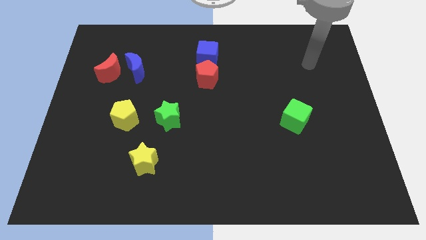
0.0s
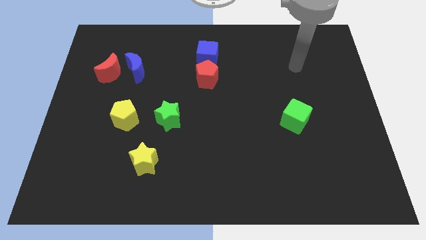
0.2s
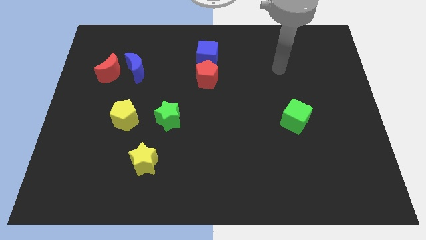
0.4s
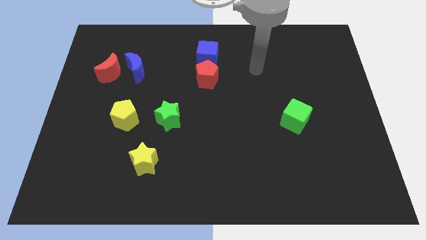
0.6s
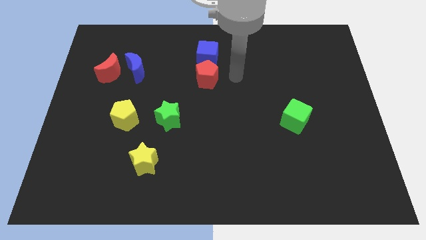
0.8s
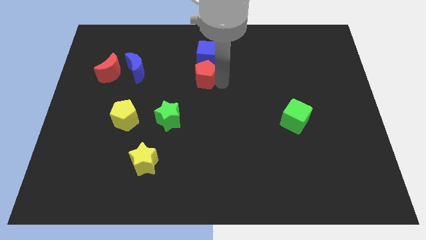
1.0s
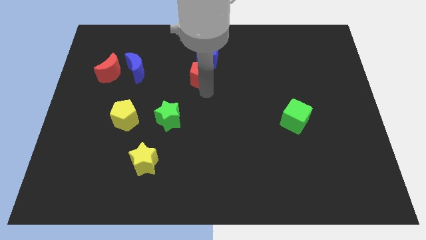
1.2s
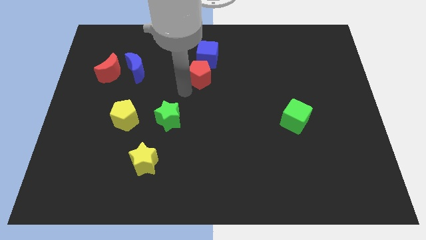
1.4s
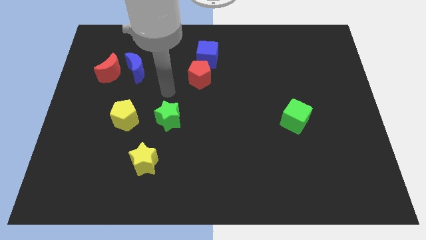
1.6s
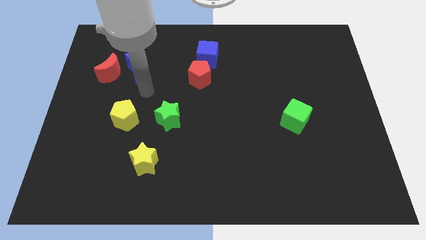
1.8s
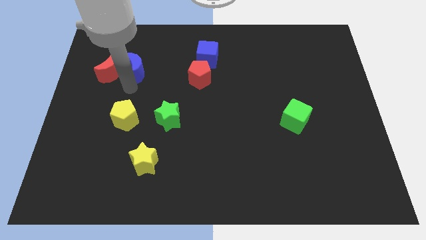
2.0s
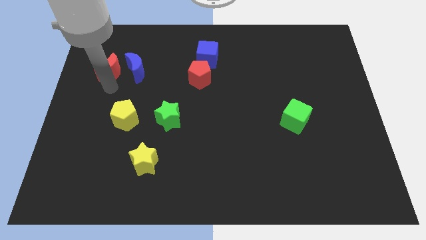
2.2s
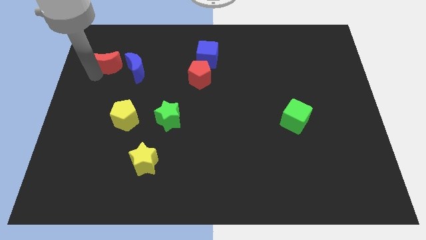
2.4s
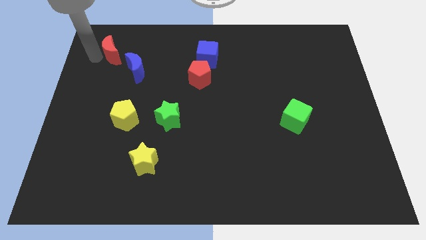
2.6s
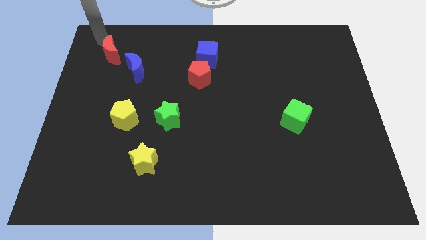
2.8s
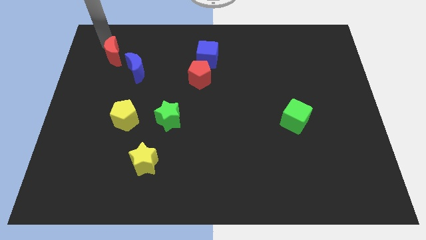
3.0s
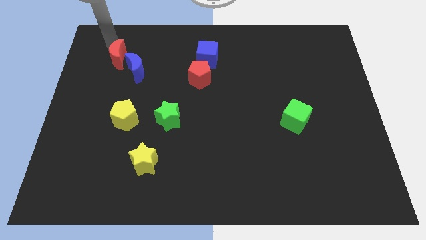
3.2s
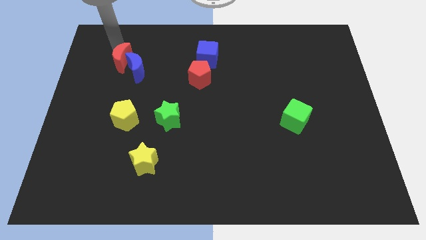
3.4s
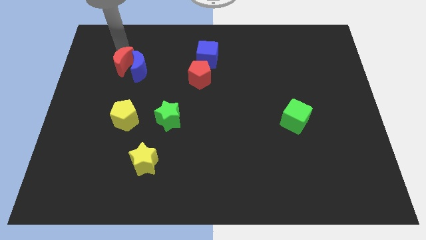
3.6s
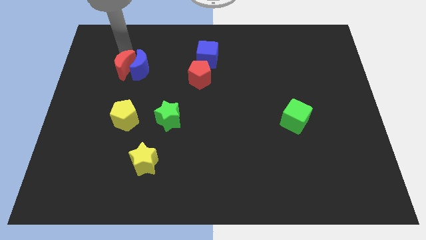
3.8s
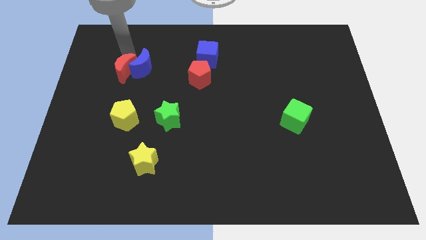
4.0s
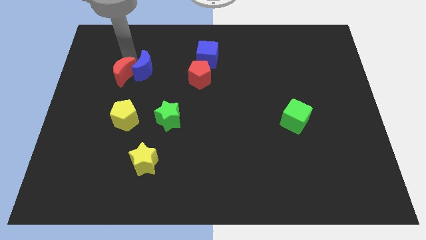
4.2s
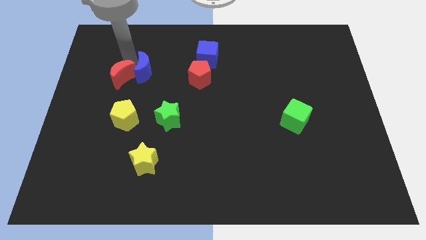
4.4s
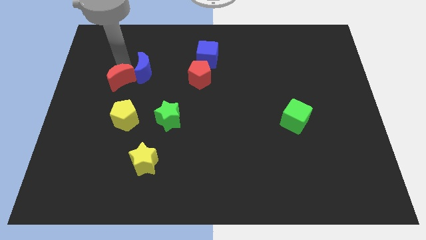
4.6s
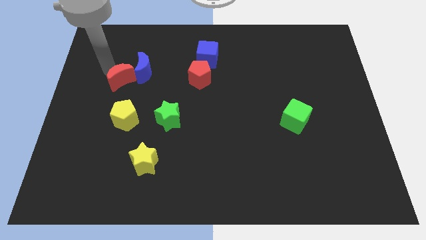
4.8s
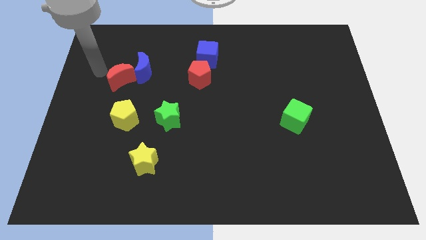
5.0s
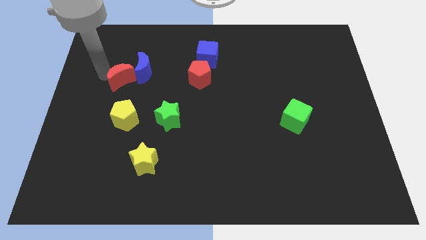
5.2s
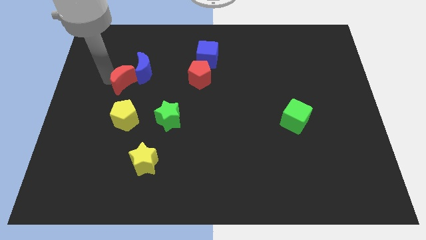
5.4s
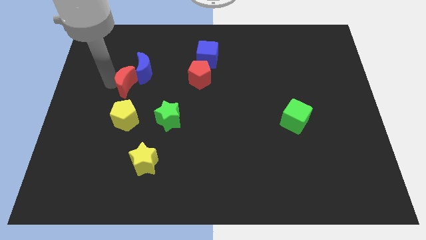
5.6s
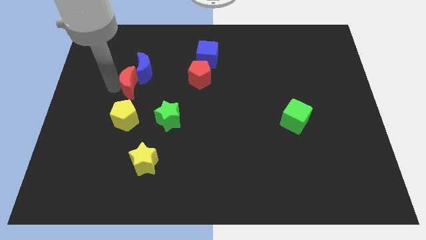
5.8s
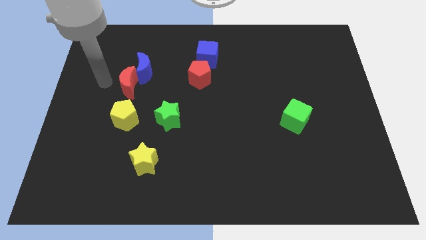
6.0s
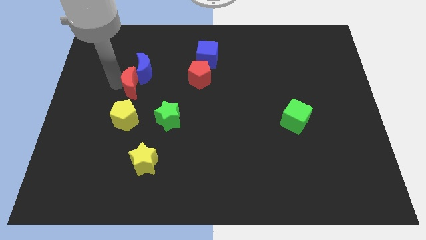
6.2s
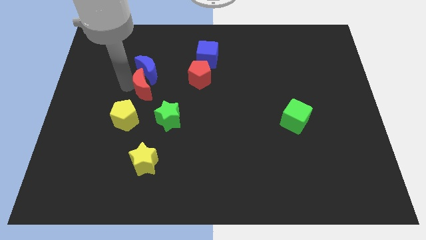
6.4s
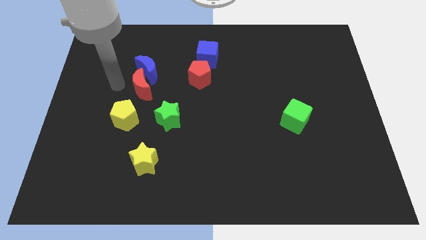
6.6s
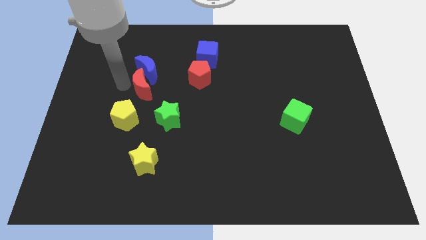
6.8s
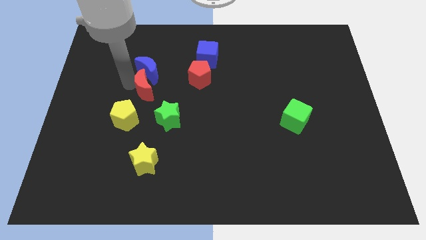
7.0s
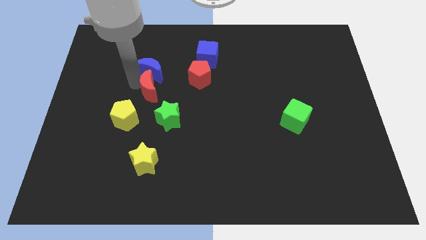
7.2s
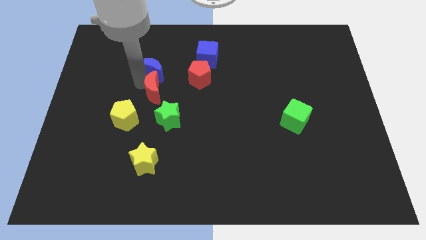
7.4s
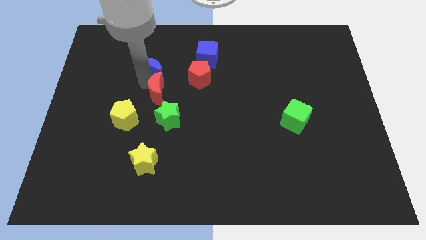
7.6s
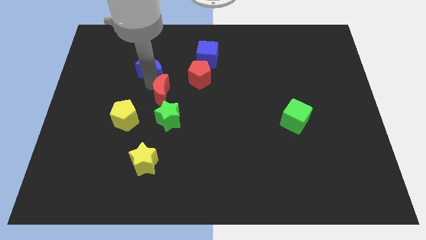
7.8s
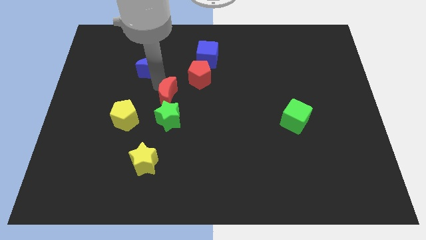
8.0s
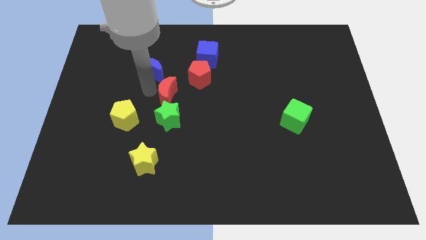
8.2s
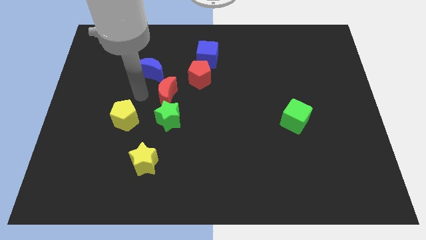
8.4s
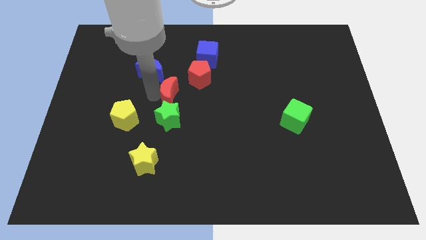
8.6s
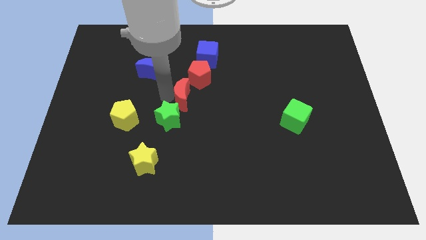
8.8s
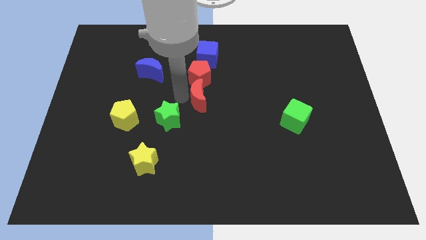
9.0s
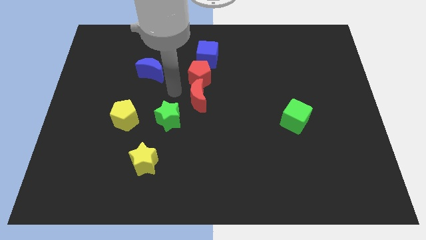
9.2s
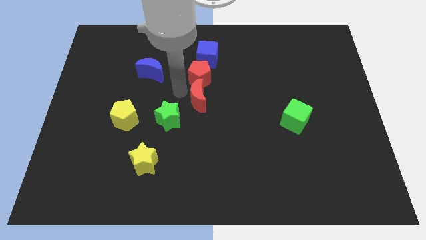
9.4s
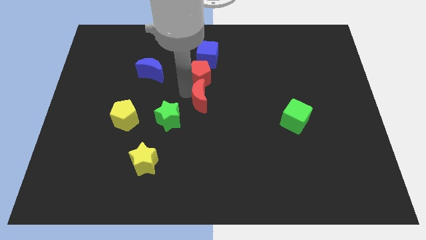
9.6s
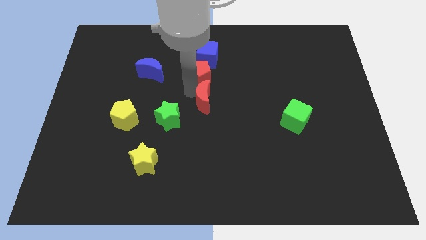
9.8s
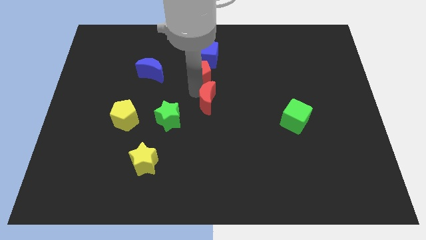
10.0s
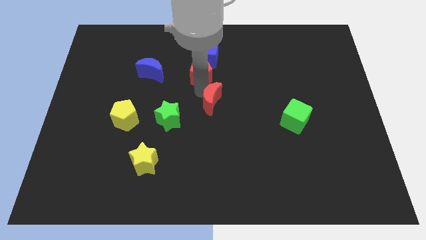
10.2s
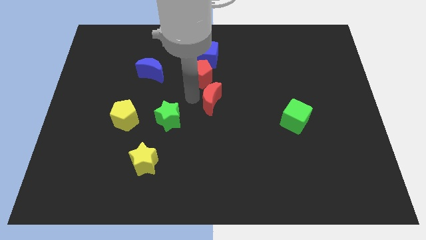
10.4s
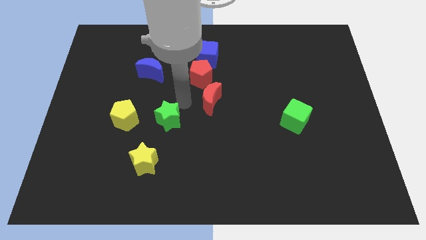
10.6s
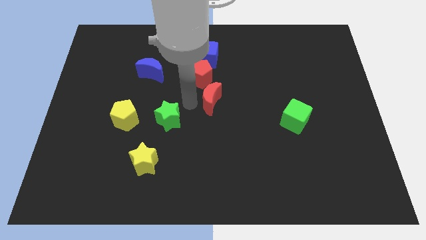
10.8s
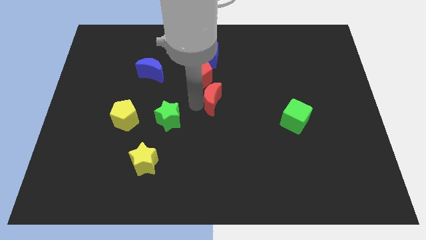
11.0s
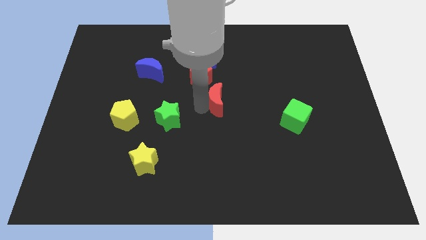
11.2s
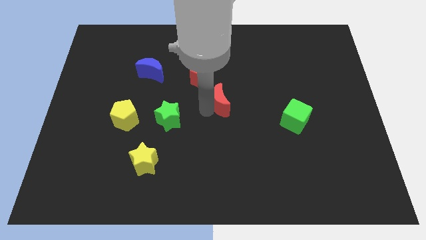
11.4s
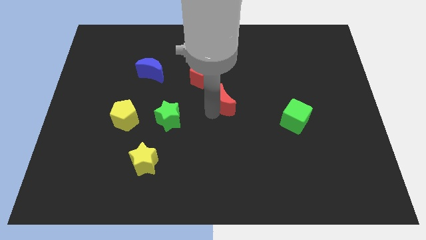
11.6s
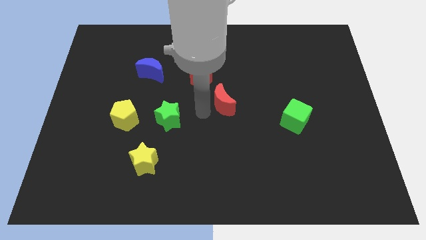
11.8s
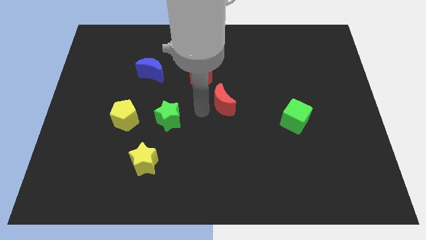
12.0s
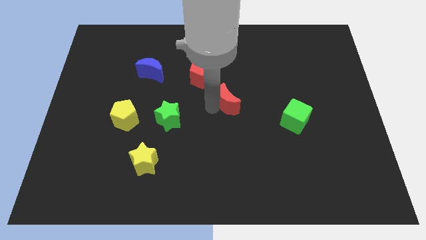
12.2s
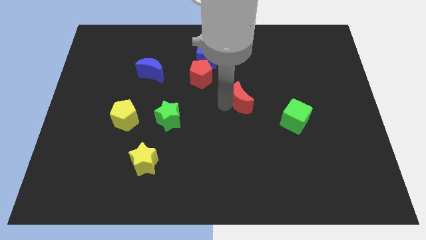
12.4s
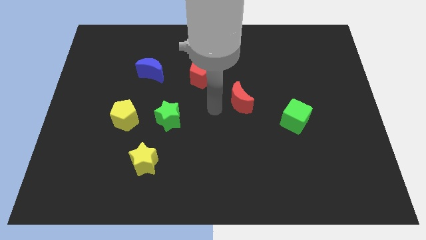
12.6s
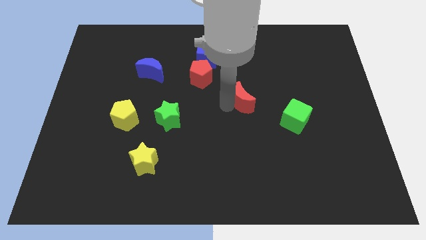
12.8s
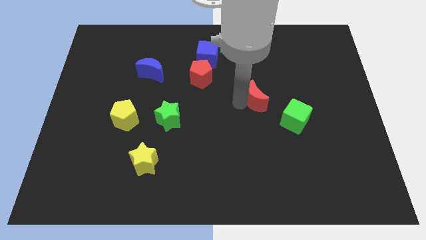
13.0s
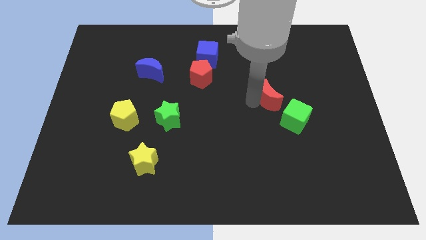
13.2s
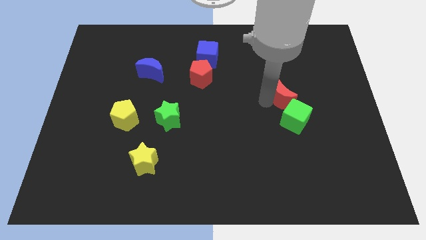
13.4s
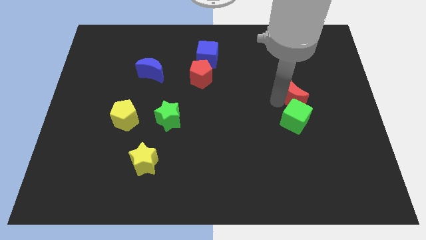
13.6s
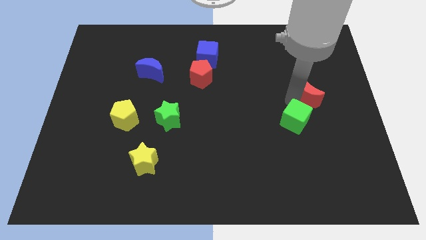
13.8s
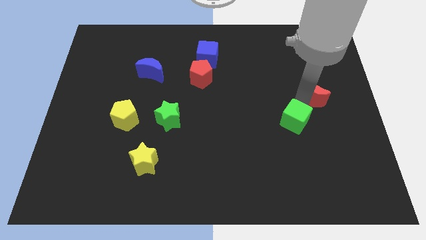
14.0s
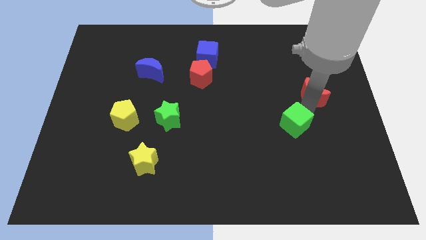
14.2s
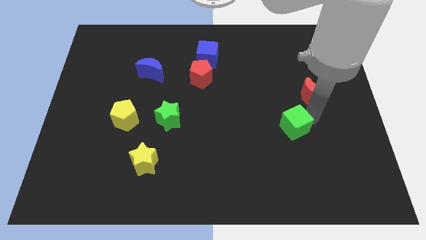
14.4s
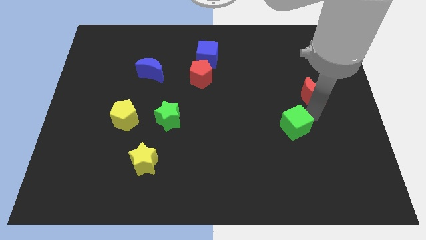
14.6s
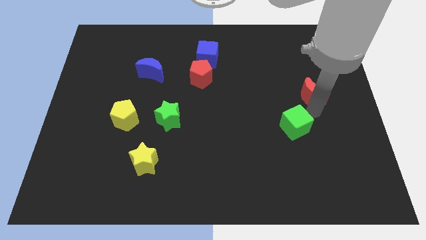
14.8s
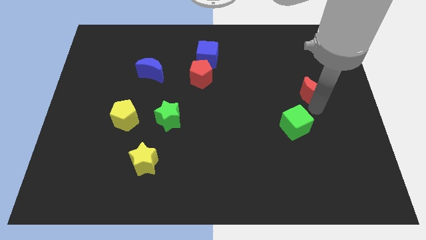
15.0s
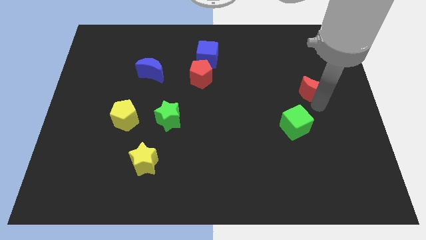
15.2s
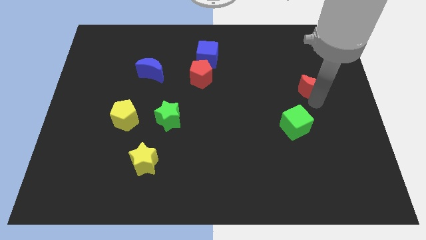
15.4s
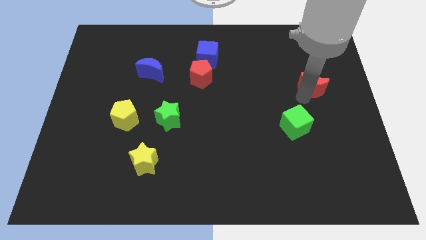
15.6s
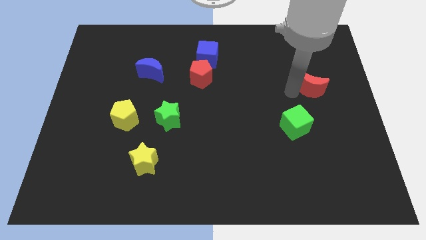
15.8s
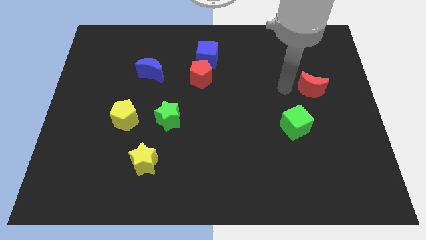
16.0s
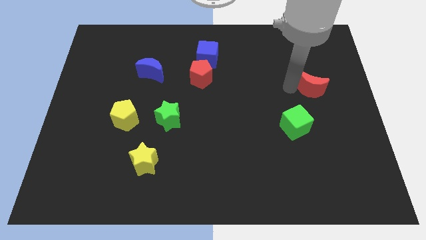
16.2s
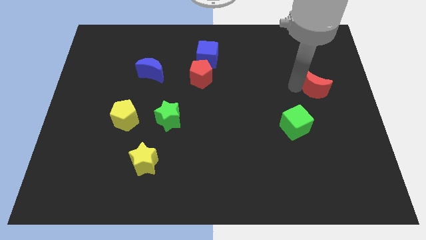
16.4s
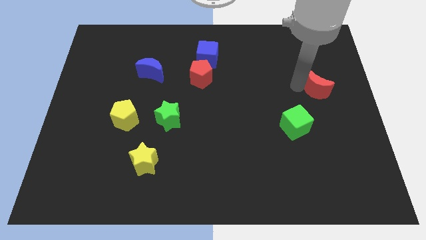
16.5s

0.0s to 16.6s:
slide the red moon to the right side of the board
